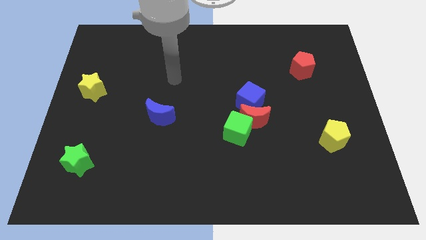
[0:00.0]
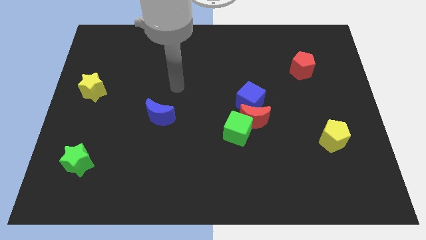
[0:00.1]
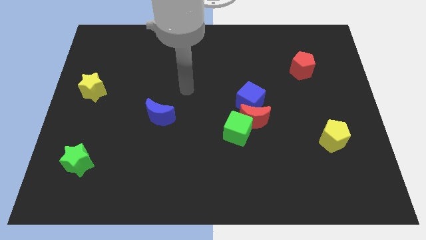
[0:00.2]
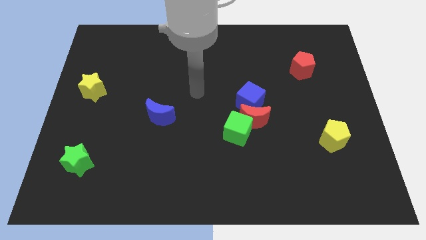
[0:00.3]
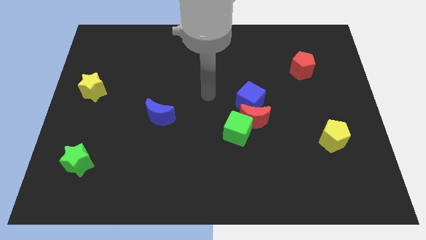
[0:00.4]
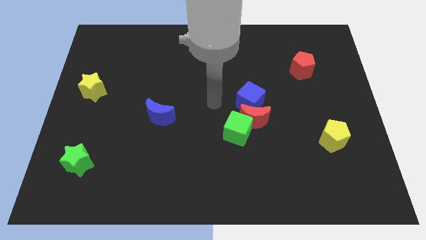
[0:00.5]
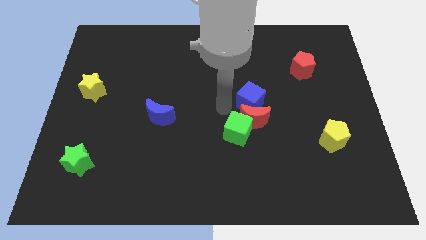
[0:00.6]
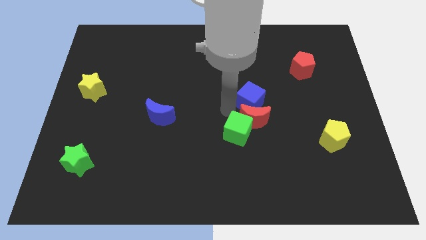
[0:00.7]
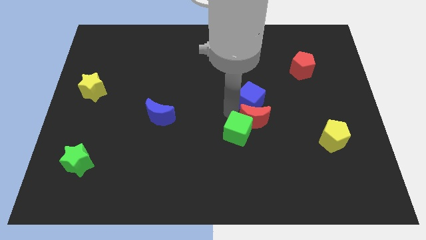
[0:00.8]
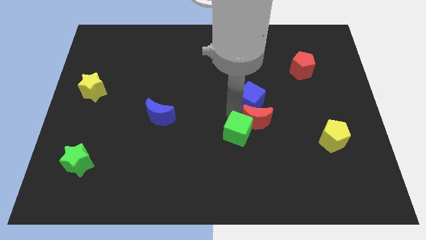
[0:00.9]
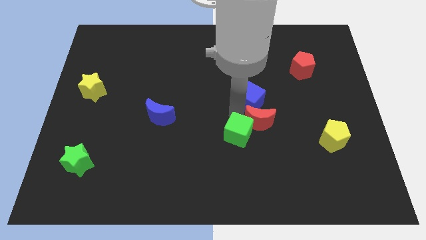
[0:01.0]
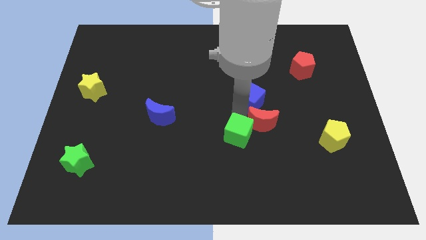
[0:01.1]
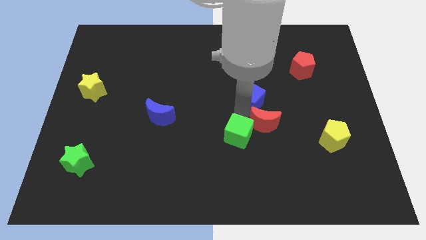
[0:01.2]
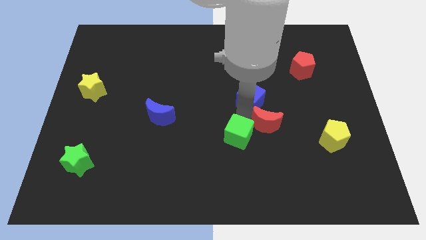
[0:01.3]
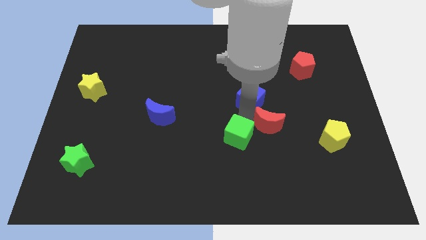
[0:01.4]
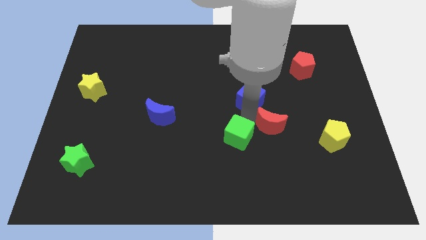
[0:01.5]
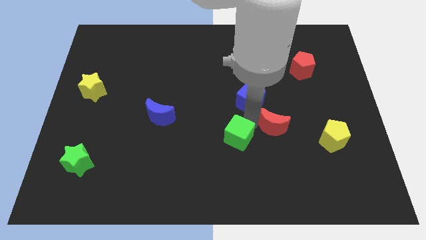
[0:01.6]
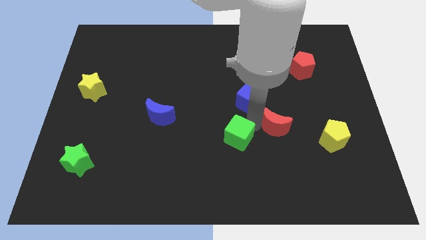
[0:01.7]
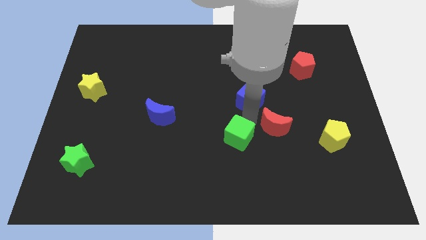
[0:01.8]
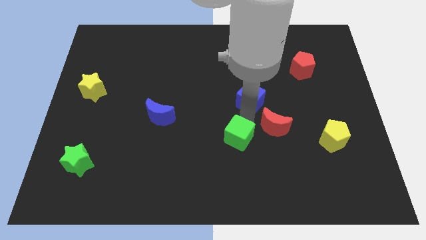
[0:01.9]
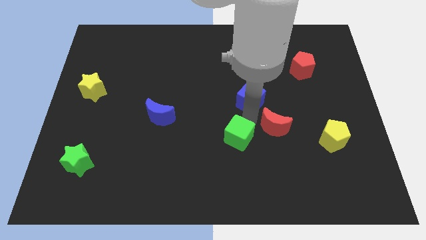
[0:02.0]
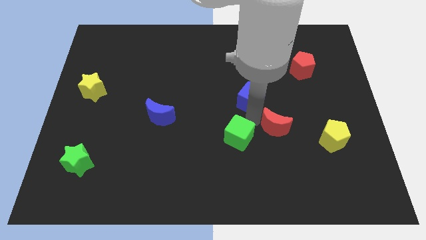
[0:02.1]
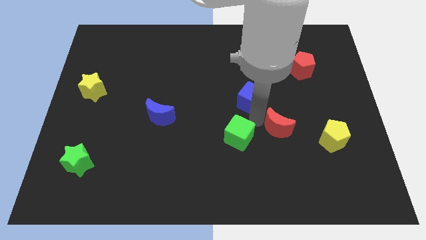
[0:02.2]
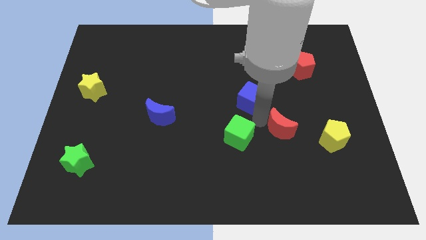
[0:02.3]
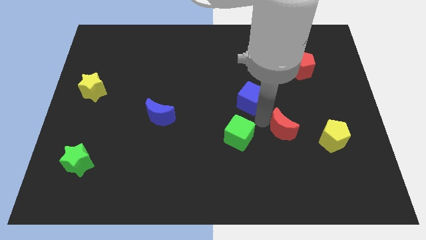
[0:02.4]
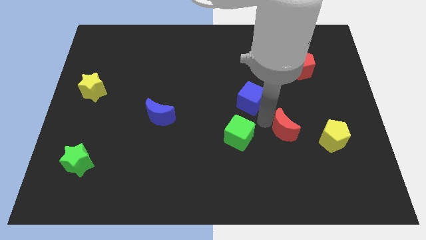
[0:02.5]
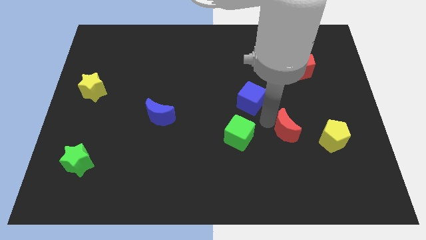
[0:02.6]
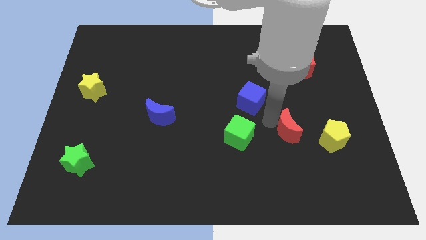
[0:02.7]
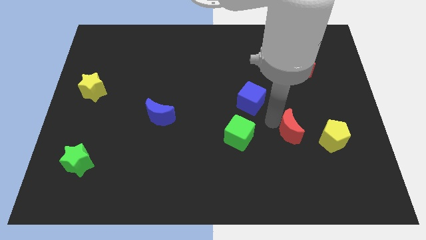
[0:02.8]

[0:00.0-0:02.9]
separate the red moon from the green cube and blue cube

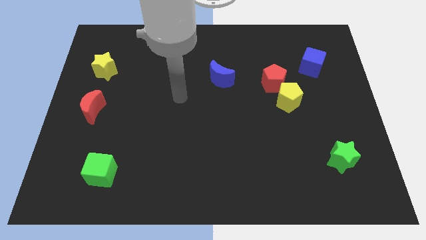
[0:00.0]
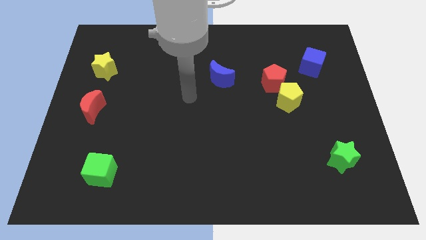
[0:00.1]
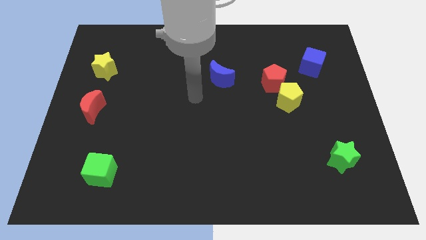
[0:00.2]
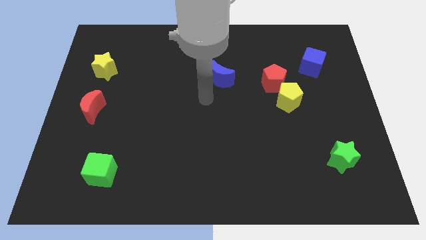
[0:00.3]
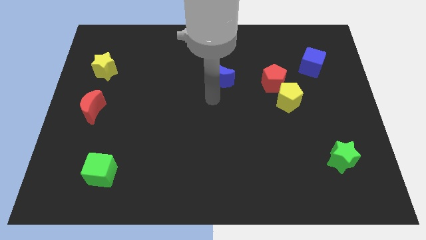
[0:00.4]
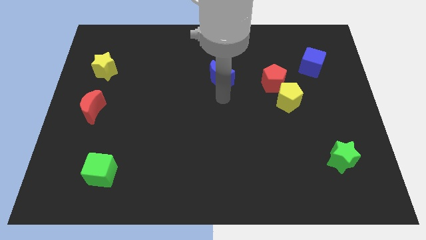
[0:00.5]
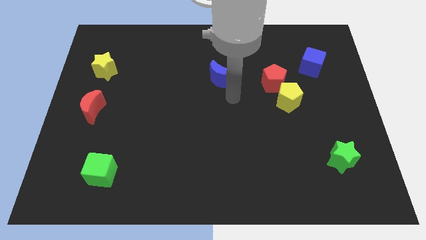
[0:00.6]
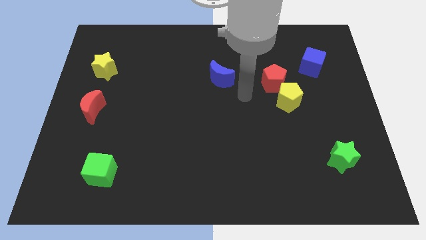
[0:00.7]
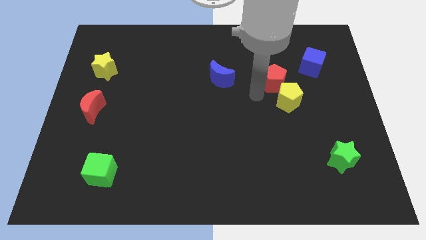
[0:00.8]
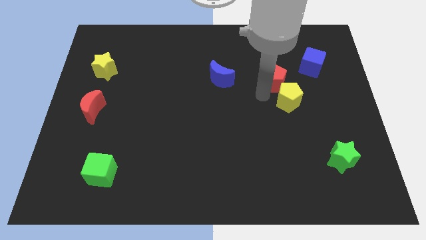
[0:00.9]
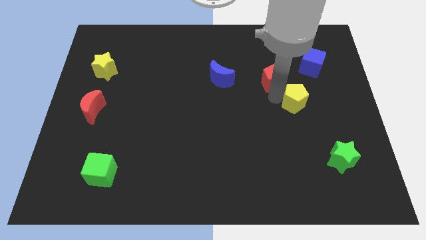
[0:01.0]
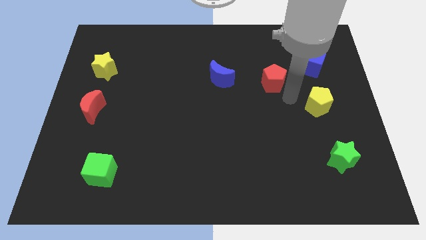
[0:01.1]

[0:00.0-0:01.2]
move the red pentagon away from the yellow pentagon

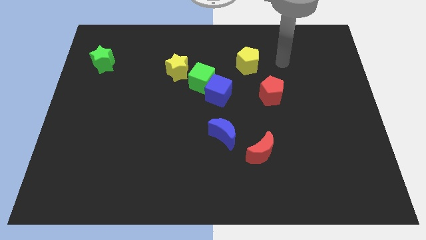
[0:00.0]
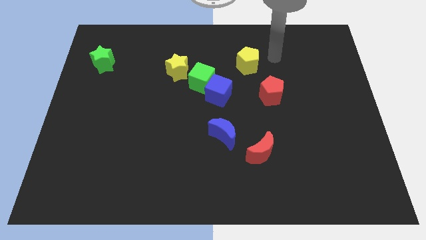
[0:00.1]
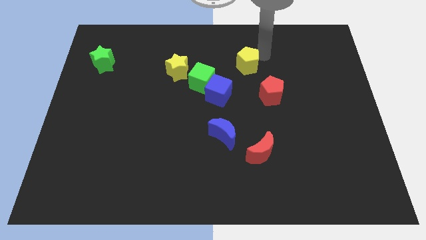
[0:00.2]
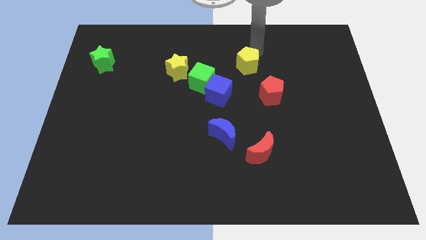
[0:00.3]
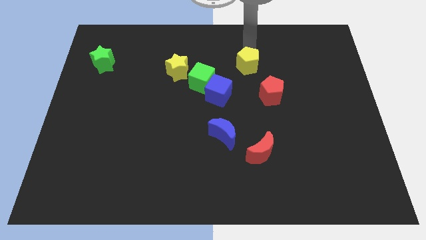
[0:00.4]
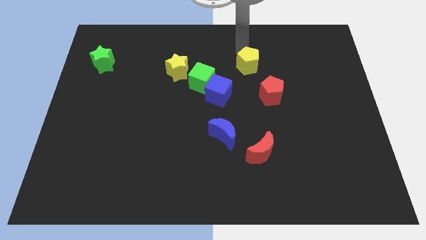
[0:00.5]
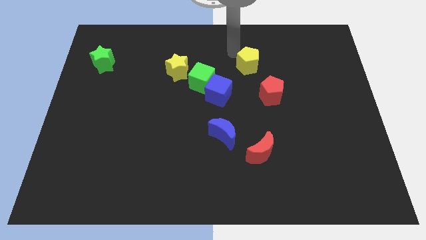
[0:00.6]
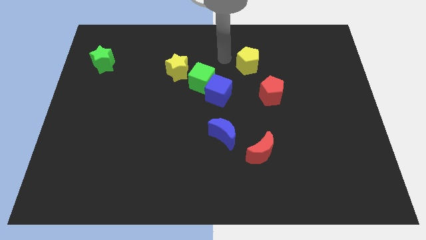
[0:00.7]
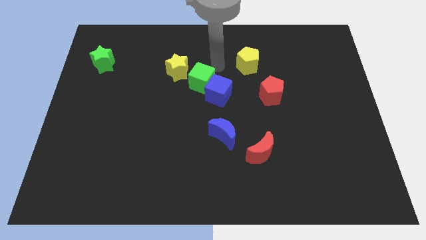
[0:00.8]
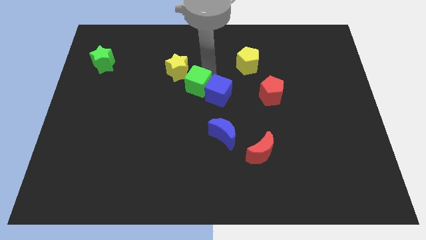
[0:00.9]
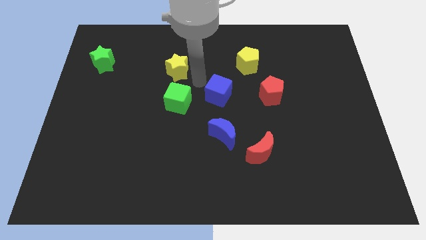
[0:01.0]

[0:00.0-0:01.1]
pull the blue cube apart from the green cube

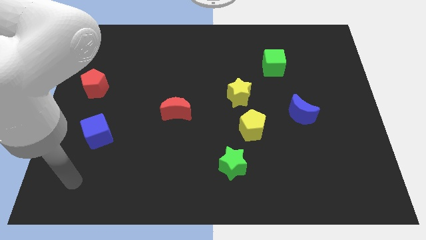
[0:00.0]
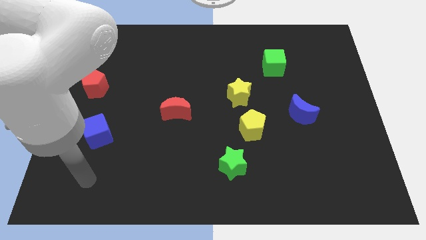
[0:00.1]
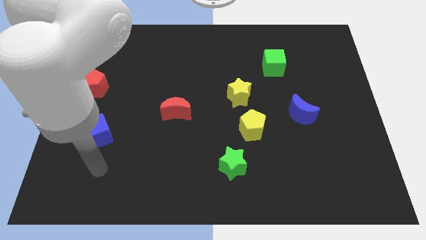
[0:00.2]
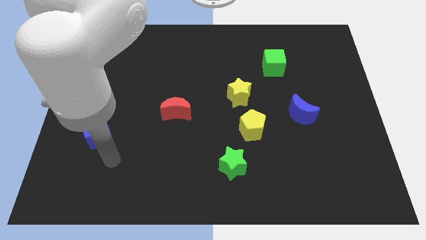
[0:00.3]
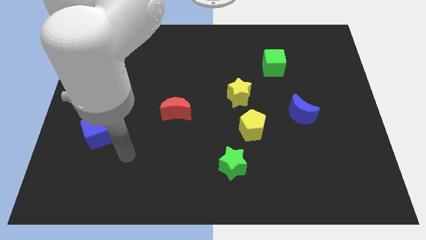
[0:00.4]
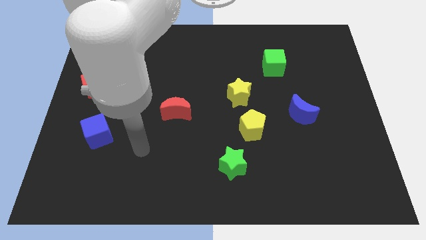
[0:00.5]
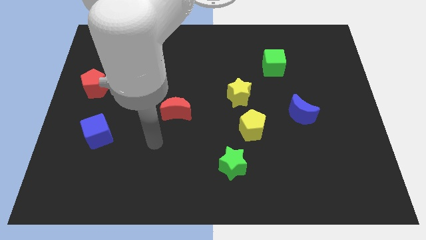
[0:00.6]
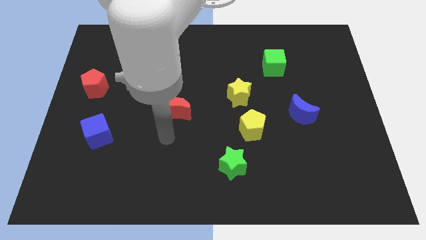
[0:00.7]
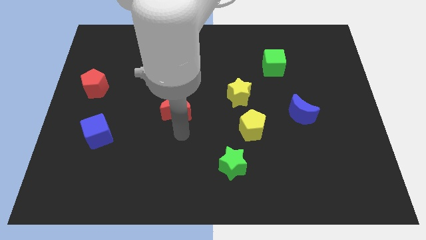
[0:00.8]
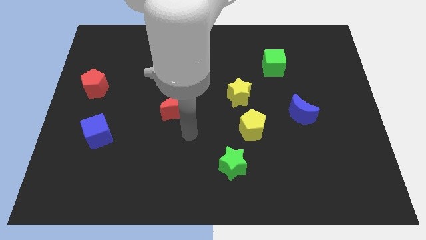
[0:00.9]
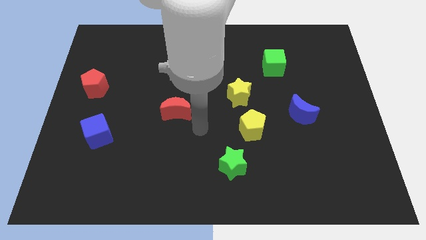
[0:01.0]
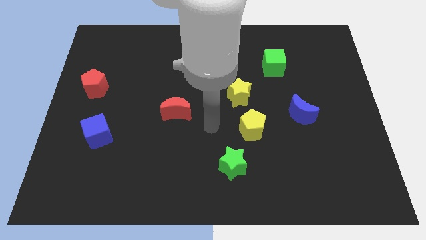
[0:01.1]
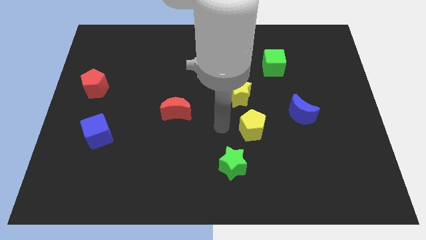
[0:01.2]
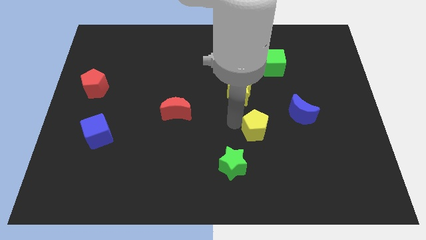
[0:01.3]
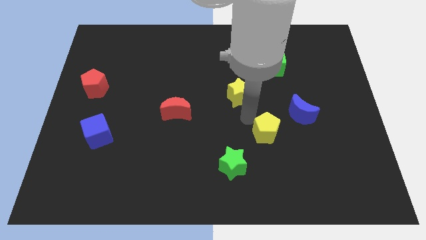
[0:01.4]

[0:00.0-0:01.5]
pull the yellow star apart from the yellow pentagon

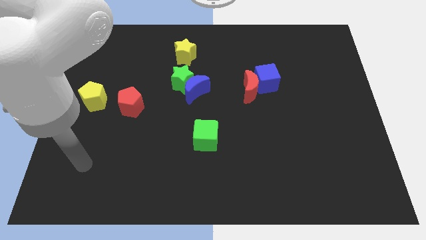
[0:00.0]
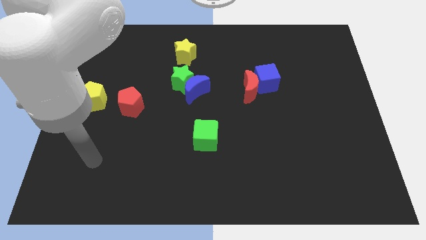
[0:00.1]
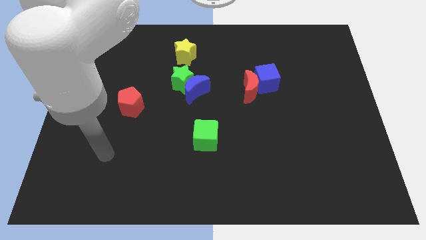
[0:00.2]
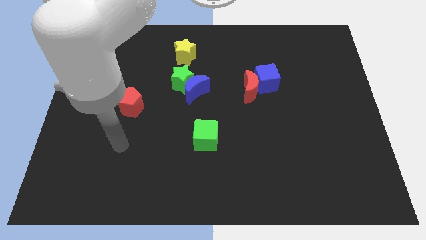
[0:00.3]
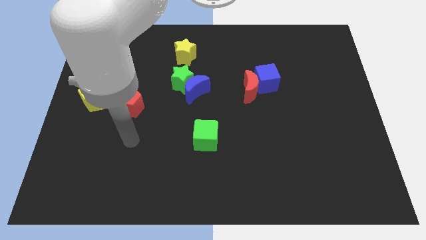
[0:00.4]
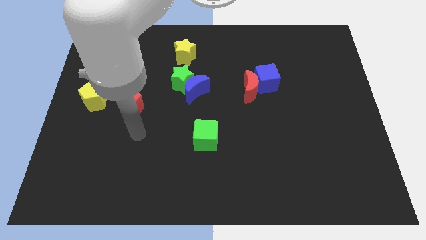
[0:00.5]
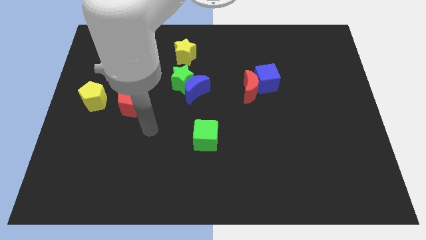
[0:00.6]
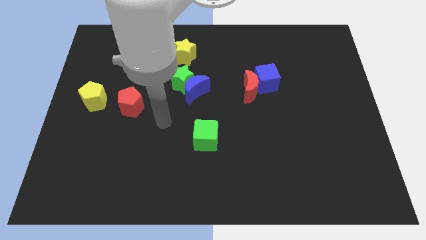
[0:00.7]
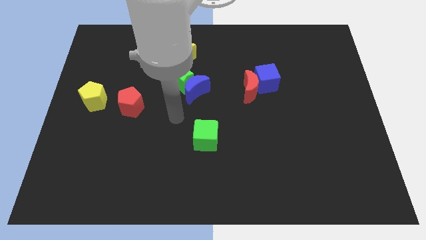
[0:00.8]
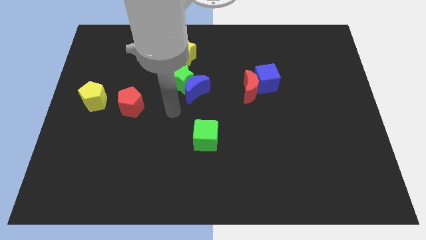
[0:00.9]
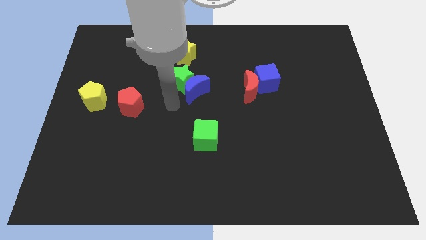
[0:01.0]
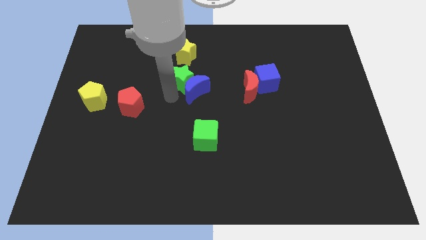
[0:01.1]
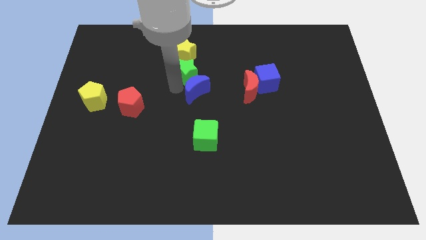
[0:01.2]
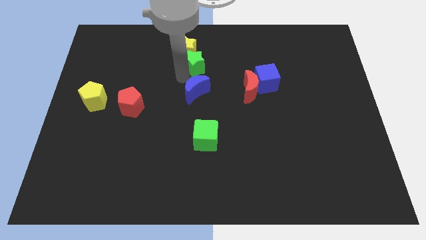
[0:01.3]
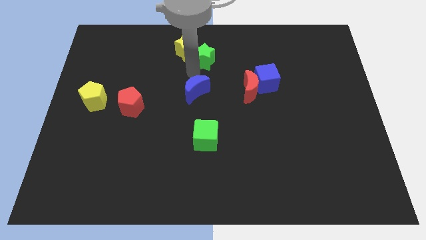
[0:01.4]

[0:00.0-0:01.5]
separate the blue moon from the green star

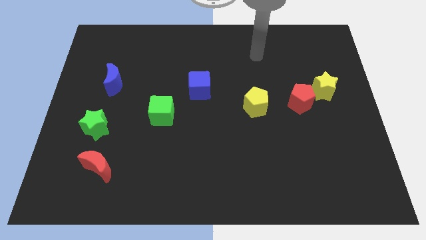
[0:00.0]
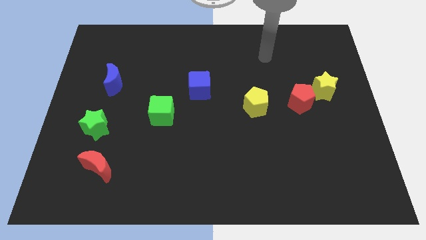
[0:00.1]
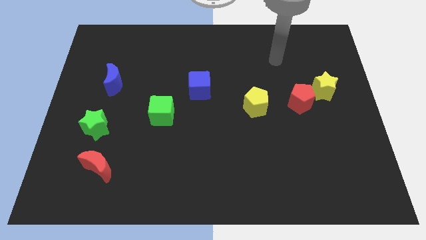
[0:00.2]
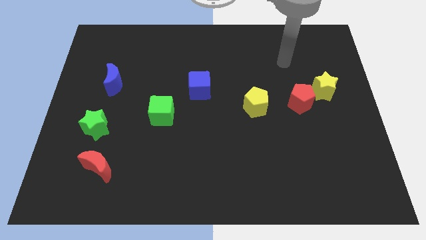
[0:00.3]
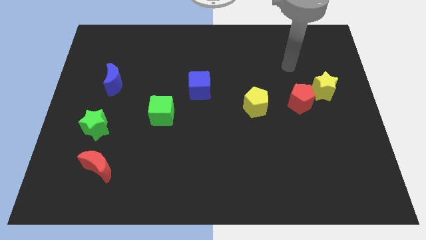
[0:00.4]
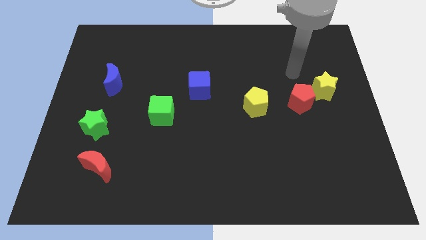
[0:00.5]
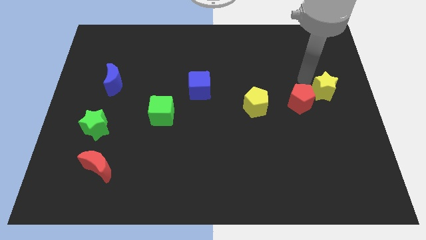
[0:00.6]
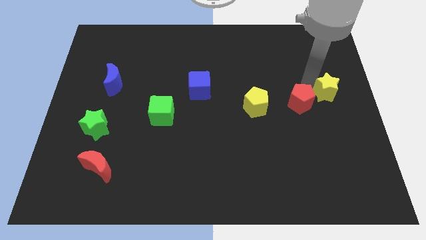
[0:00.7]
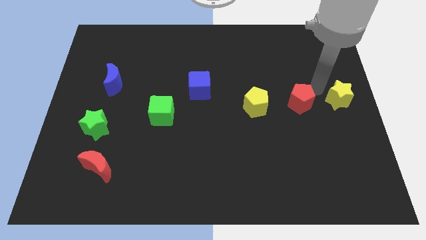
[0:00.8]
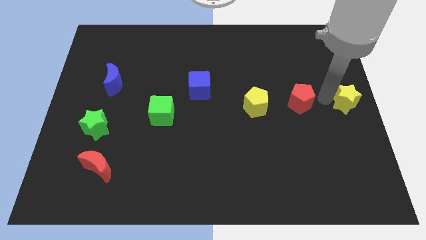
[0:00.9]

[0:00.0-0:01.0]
separate the red pentagon from the yellow star
